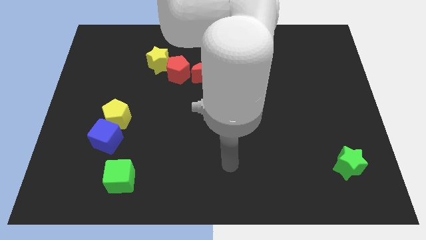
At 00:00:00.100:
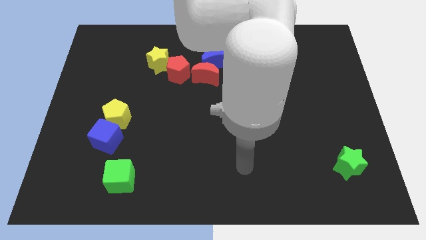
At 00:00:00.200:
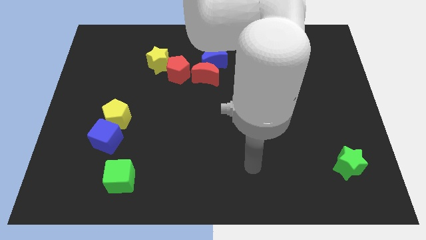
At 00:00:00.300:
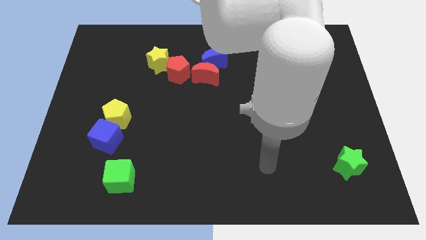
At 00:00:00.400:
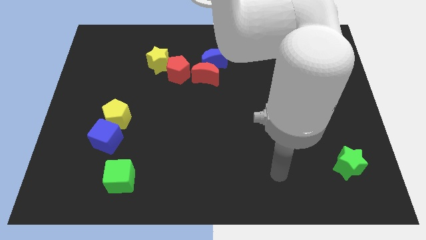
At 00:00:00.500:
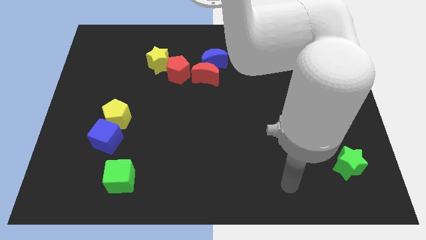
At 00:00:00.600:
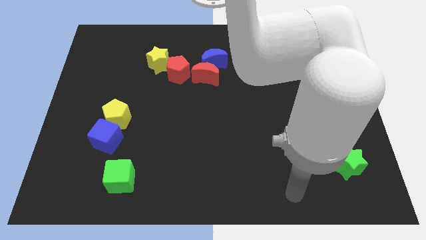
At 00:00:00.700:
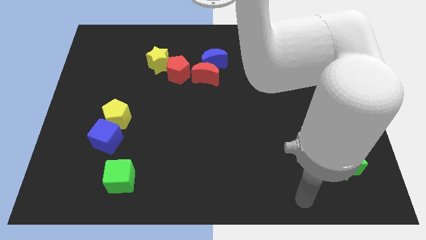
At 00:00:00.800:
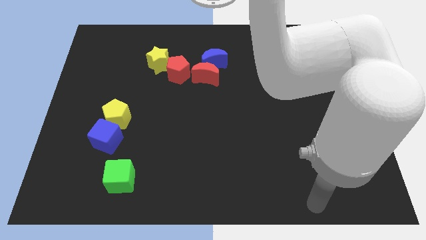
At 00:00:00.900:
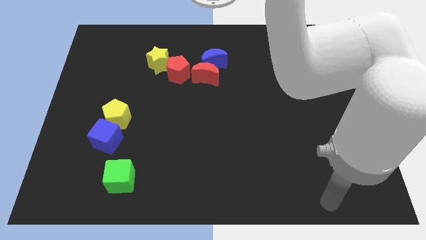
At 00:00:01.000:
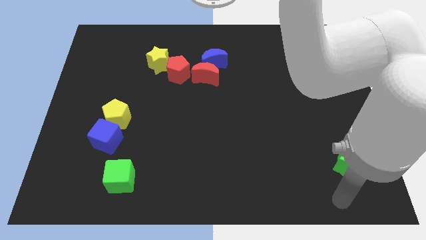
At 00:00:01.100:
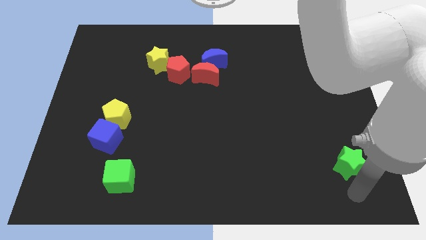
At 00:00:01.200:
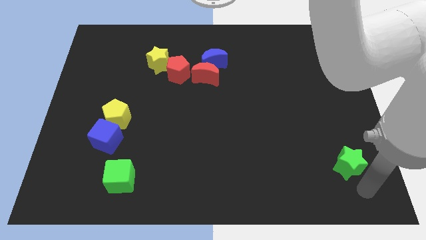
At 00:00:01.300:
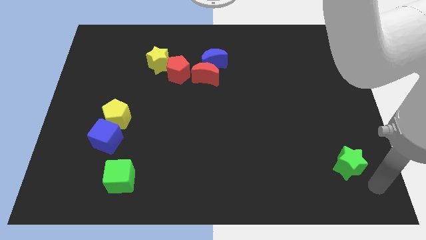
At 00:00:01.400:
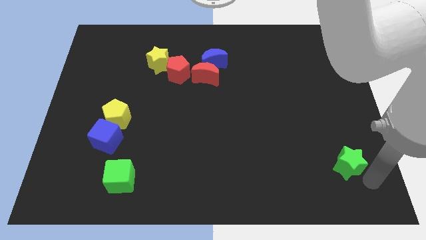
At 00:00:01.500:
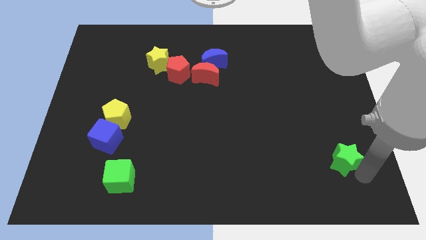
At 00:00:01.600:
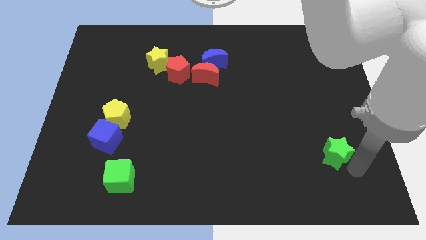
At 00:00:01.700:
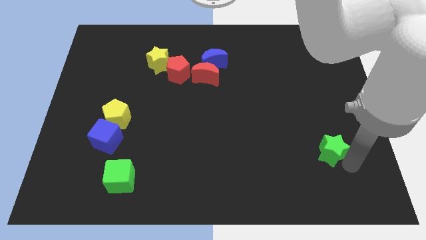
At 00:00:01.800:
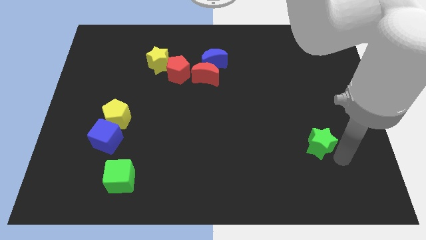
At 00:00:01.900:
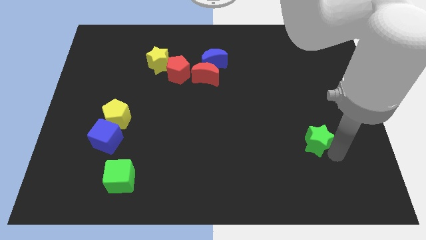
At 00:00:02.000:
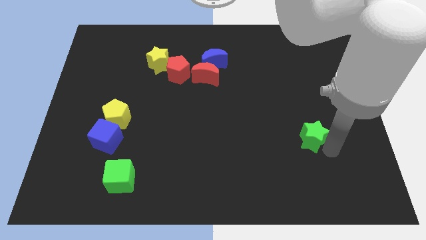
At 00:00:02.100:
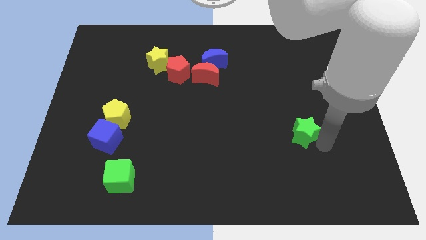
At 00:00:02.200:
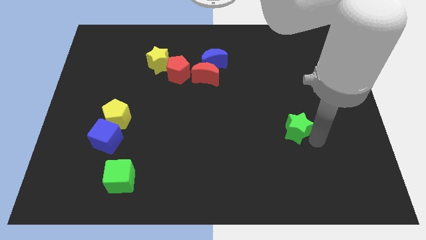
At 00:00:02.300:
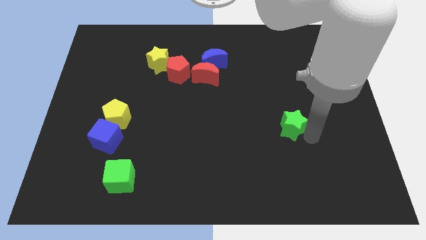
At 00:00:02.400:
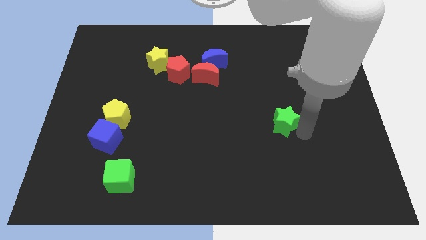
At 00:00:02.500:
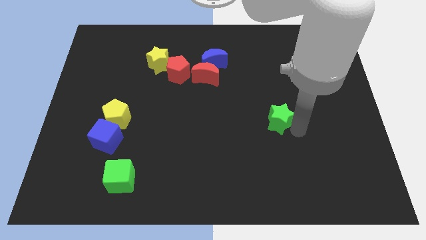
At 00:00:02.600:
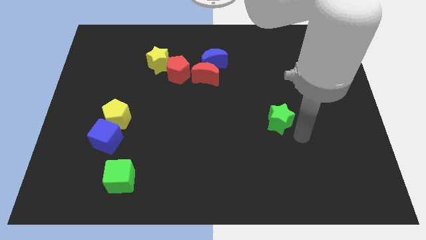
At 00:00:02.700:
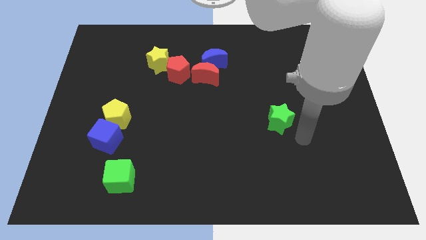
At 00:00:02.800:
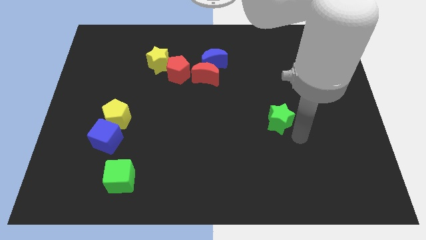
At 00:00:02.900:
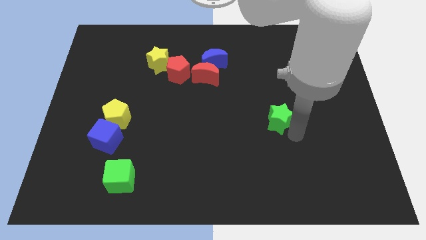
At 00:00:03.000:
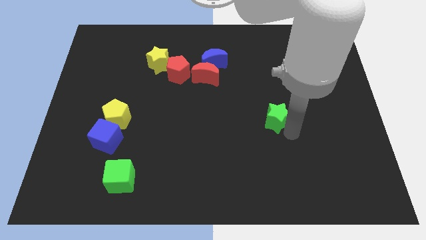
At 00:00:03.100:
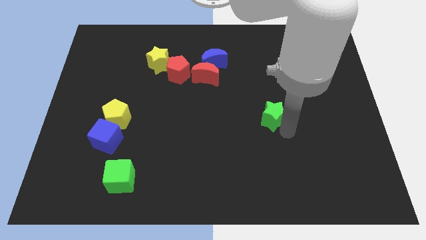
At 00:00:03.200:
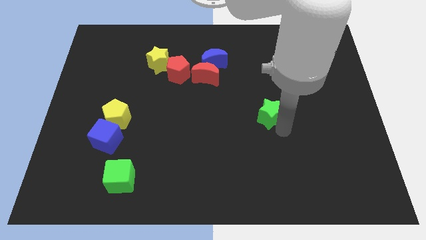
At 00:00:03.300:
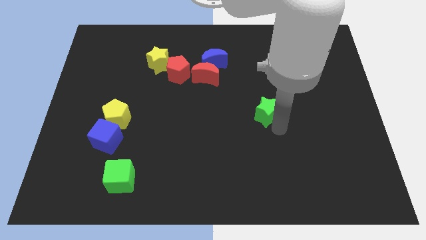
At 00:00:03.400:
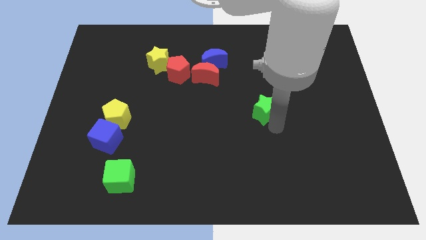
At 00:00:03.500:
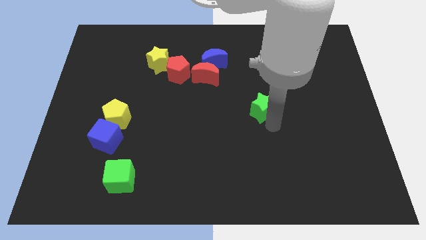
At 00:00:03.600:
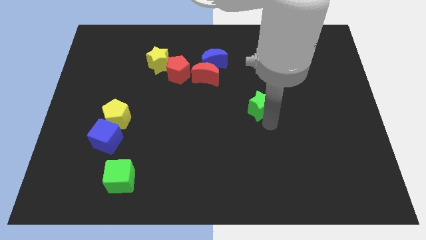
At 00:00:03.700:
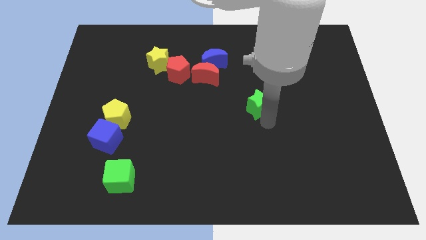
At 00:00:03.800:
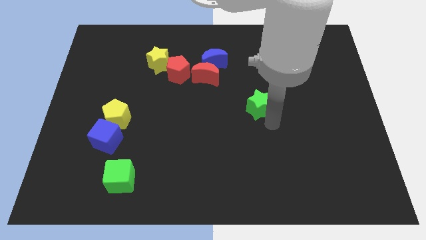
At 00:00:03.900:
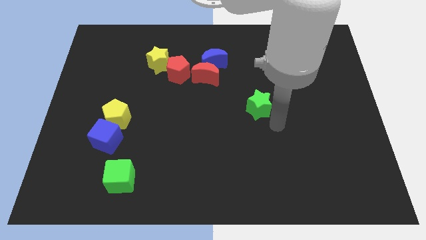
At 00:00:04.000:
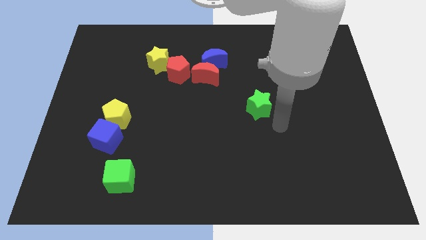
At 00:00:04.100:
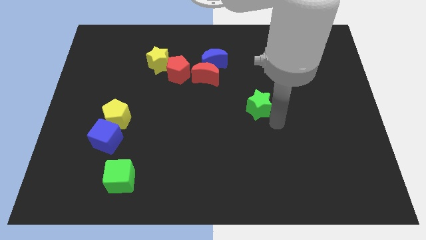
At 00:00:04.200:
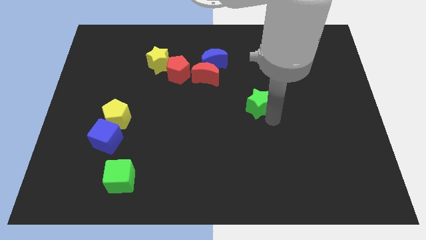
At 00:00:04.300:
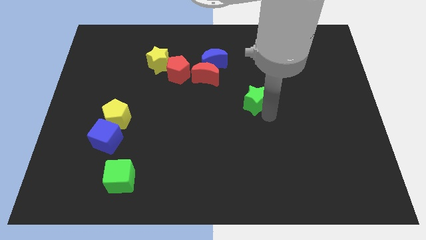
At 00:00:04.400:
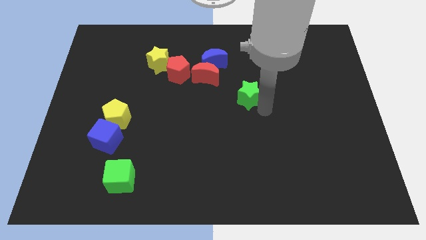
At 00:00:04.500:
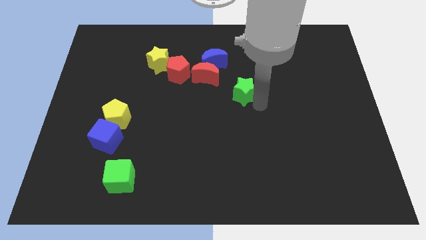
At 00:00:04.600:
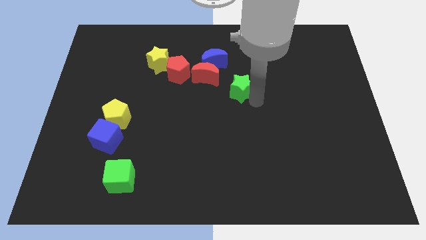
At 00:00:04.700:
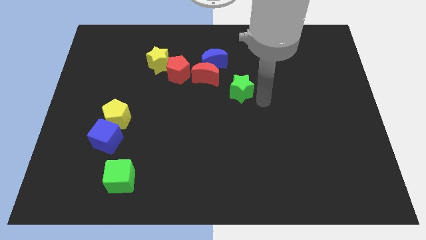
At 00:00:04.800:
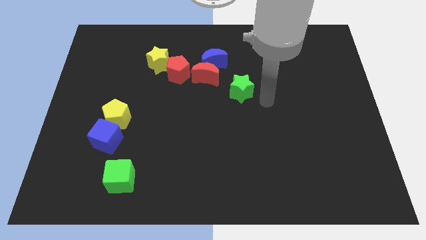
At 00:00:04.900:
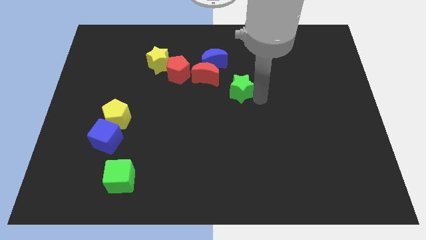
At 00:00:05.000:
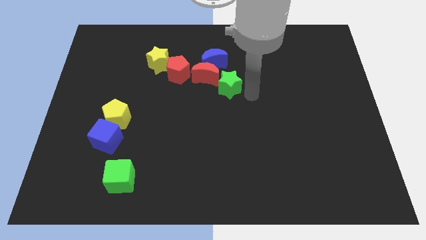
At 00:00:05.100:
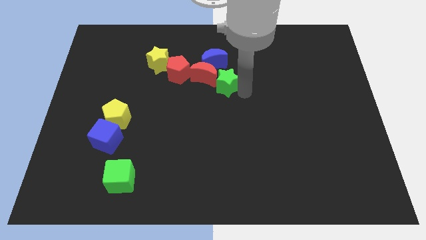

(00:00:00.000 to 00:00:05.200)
move the green star to the red moon

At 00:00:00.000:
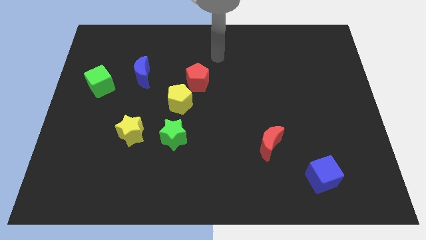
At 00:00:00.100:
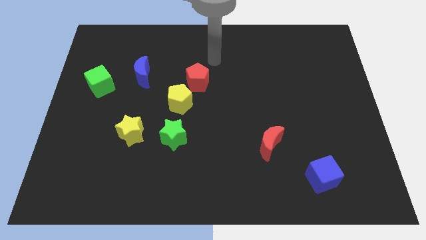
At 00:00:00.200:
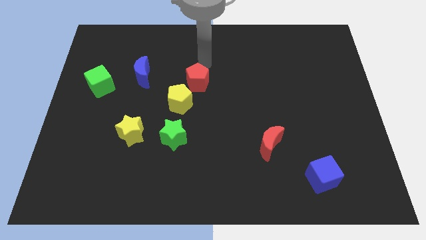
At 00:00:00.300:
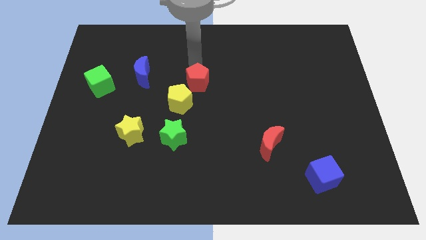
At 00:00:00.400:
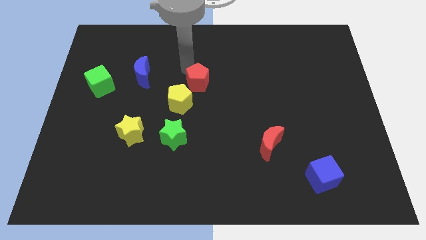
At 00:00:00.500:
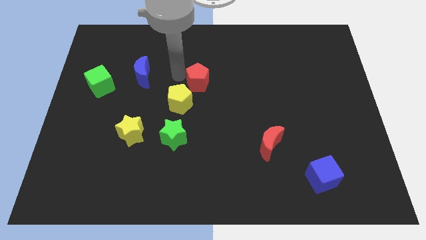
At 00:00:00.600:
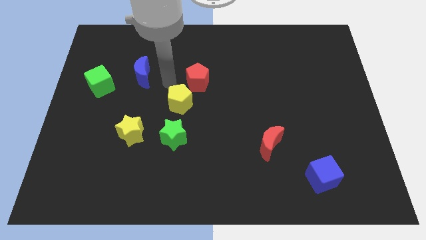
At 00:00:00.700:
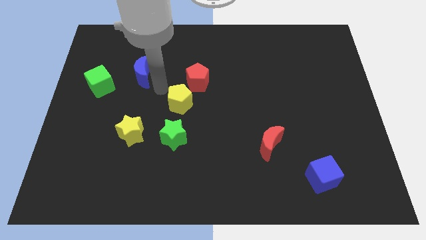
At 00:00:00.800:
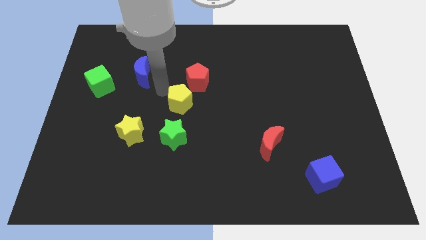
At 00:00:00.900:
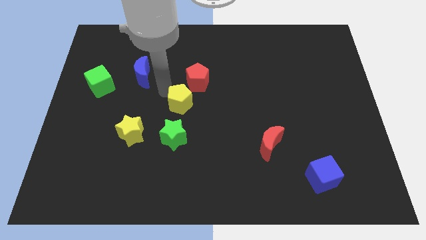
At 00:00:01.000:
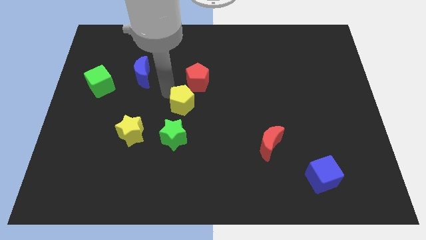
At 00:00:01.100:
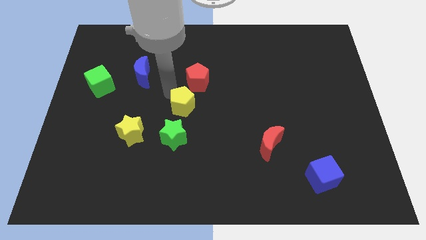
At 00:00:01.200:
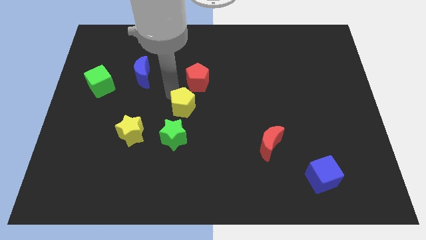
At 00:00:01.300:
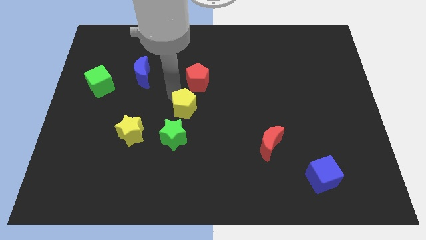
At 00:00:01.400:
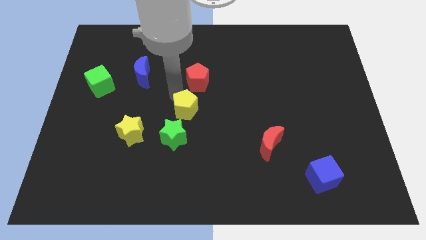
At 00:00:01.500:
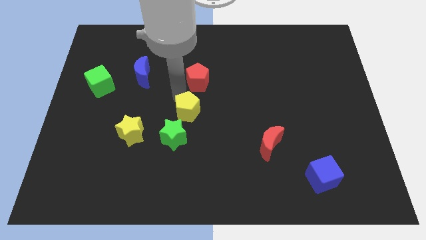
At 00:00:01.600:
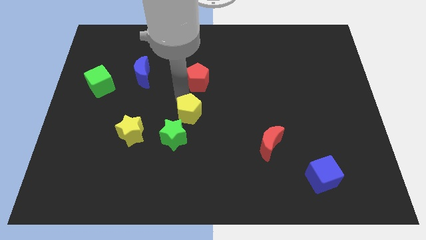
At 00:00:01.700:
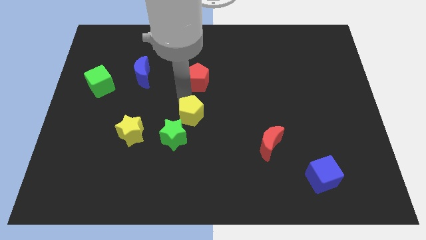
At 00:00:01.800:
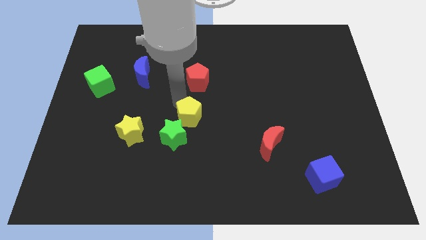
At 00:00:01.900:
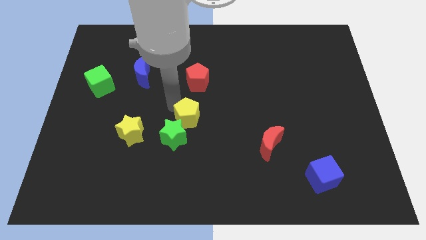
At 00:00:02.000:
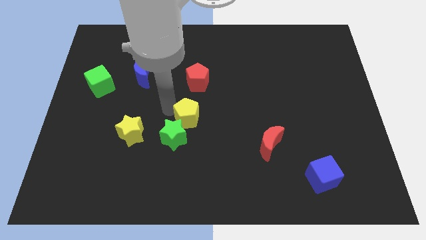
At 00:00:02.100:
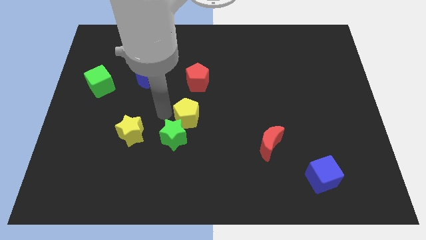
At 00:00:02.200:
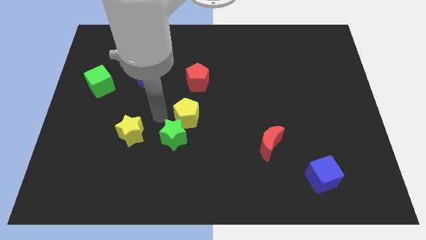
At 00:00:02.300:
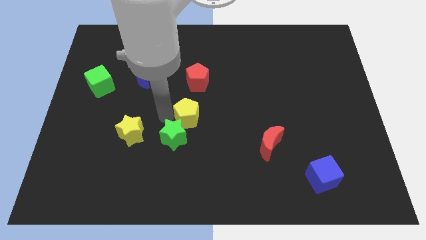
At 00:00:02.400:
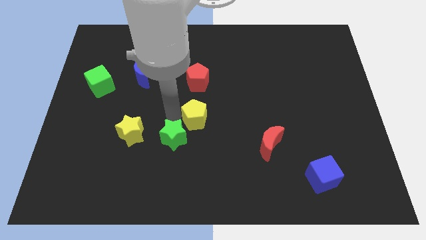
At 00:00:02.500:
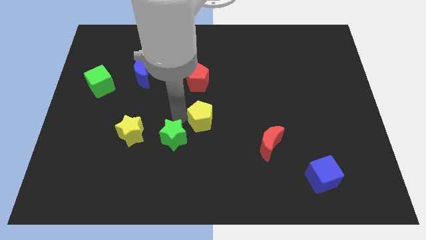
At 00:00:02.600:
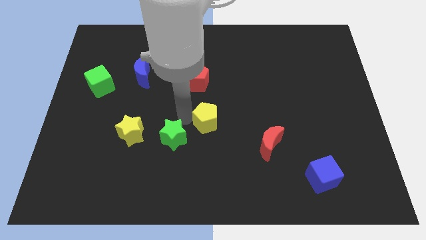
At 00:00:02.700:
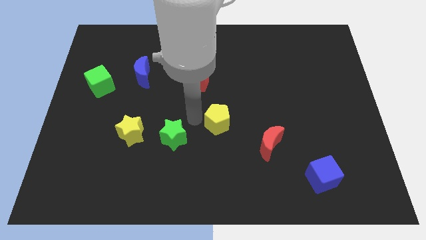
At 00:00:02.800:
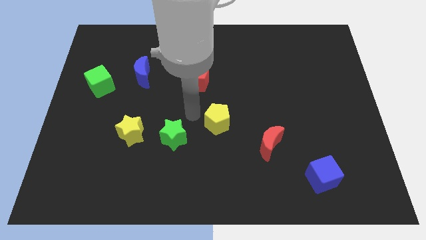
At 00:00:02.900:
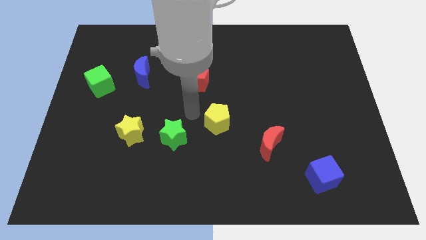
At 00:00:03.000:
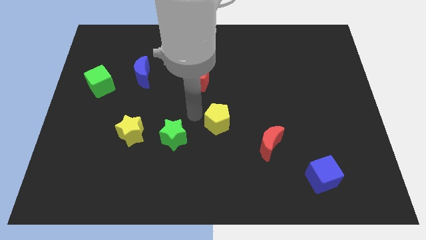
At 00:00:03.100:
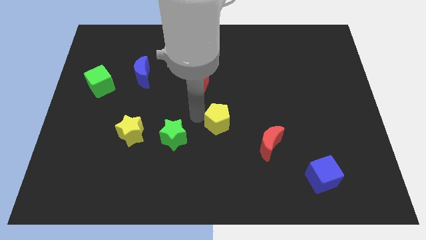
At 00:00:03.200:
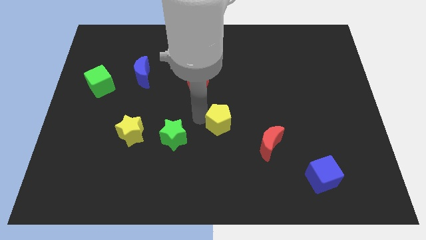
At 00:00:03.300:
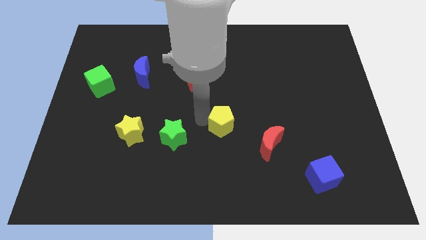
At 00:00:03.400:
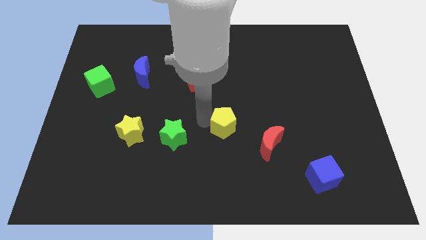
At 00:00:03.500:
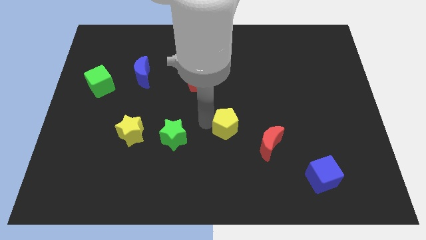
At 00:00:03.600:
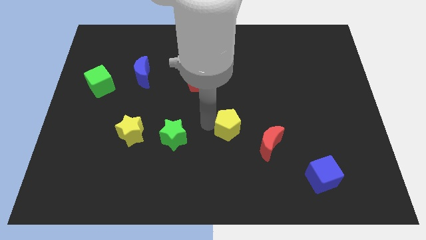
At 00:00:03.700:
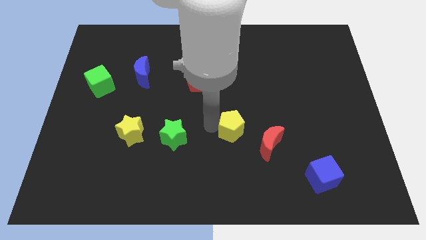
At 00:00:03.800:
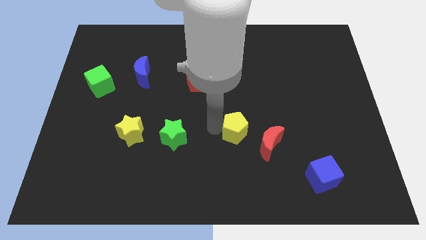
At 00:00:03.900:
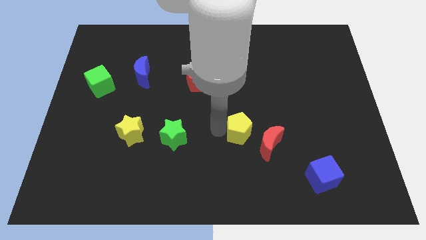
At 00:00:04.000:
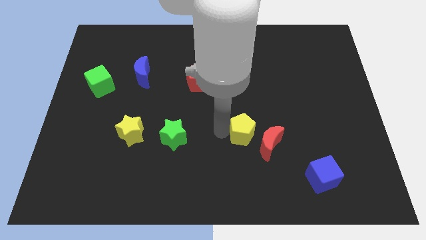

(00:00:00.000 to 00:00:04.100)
slide the yellow pentagon towards the red moon
